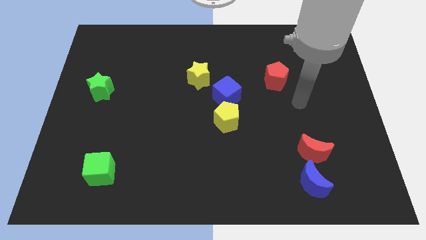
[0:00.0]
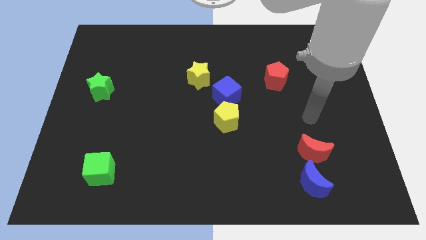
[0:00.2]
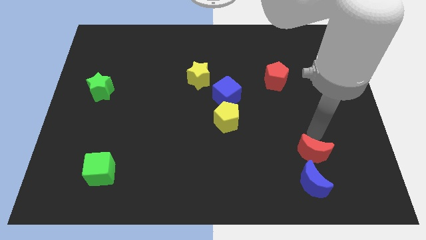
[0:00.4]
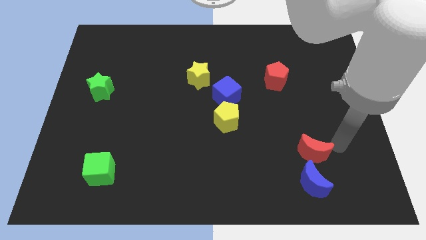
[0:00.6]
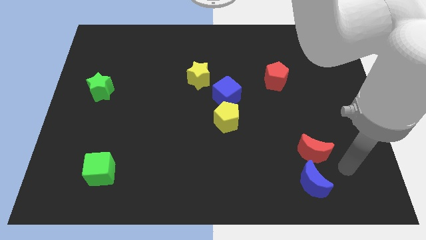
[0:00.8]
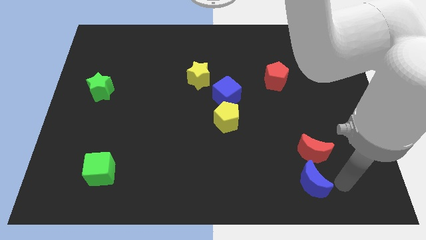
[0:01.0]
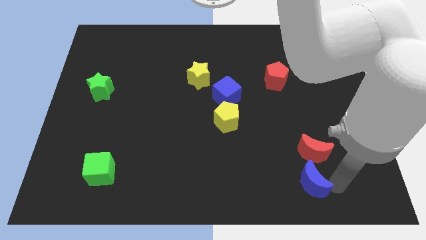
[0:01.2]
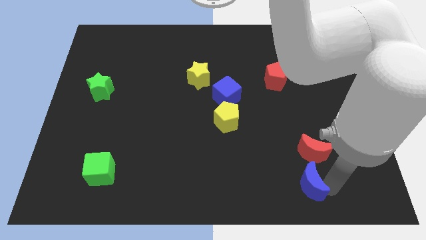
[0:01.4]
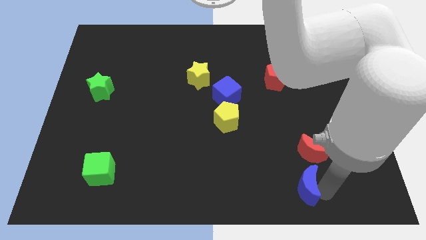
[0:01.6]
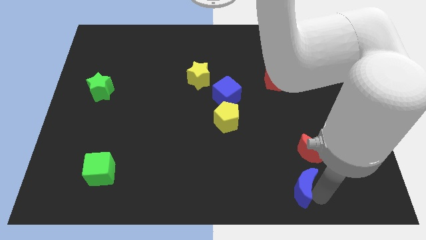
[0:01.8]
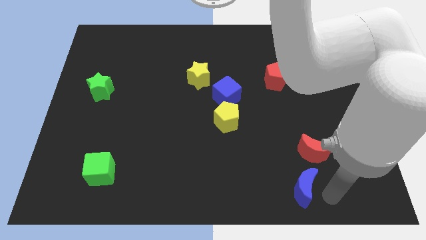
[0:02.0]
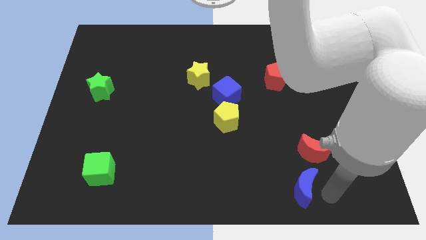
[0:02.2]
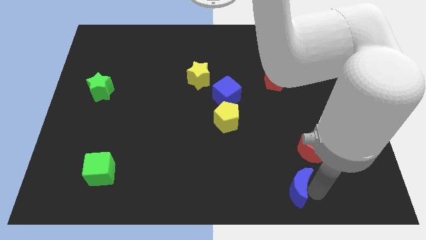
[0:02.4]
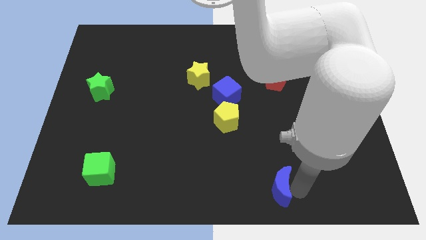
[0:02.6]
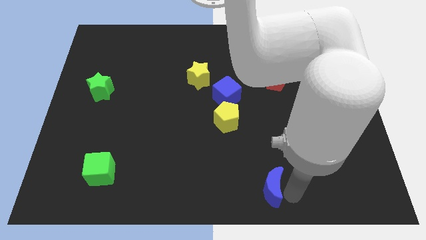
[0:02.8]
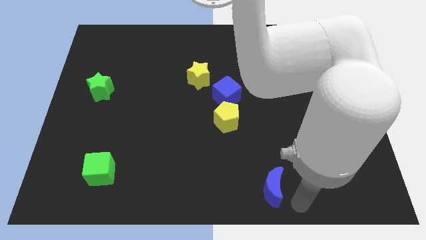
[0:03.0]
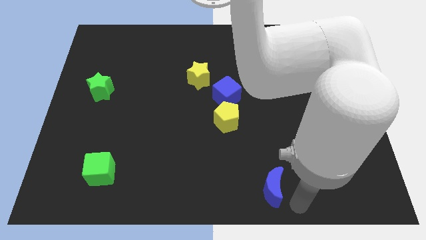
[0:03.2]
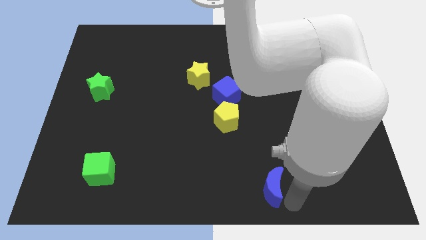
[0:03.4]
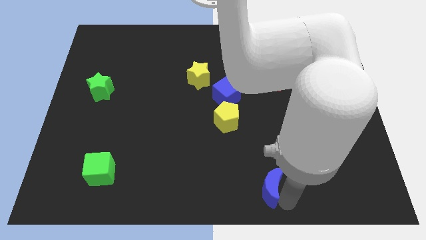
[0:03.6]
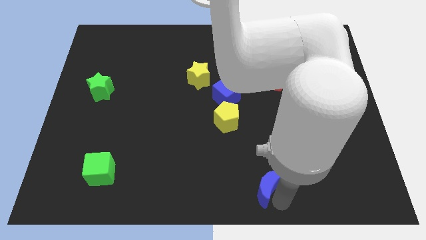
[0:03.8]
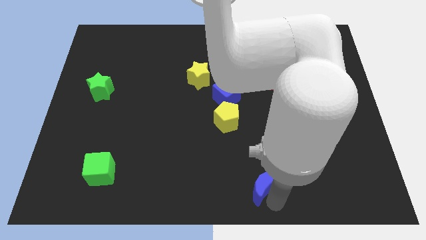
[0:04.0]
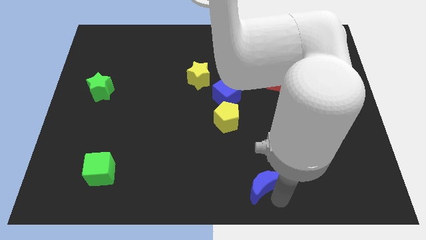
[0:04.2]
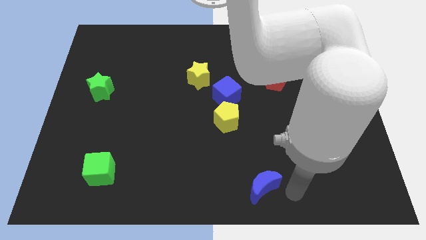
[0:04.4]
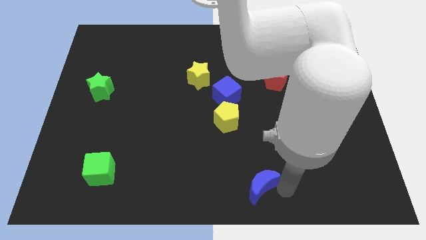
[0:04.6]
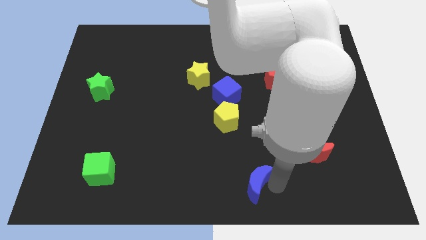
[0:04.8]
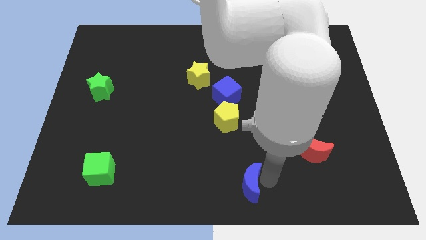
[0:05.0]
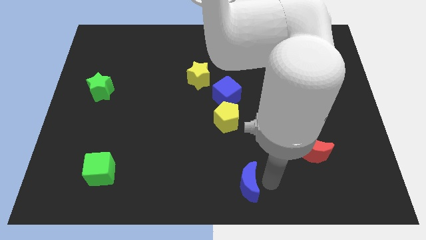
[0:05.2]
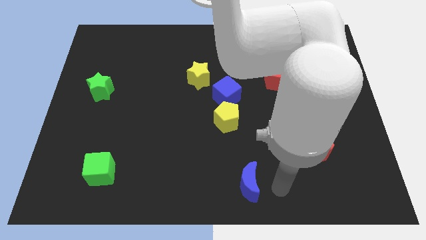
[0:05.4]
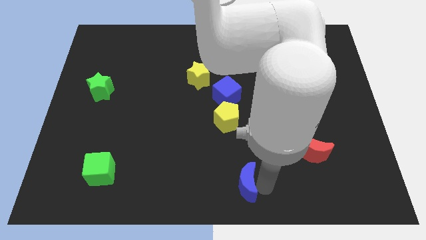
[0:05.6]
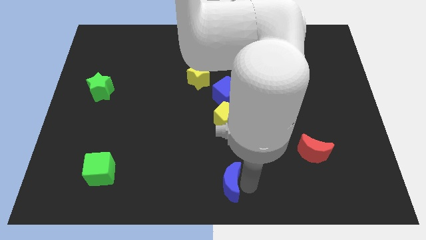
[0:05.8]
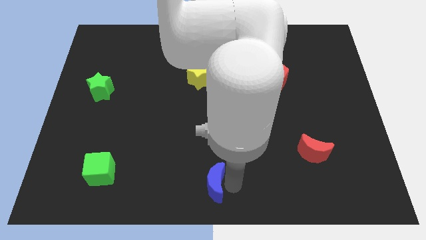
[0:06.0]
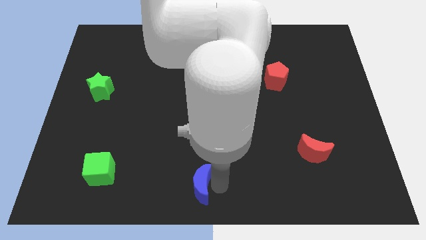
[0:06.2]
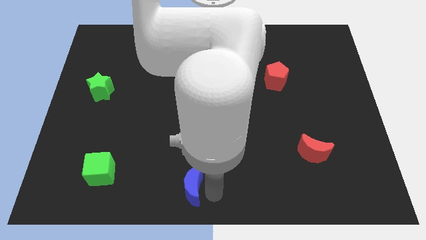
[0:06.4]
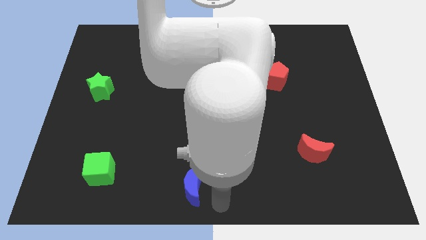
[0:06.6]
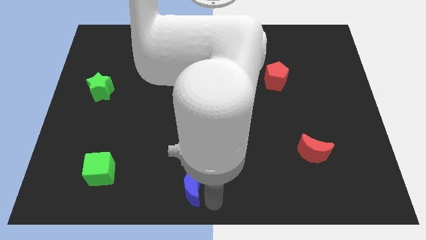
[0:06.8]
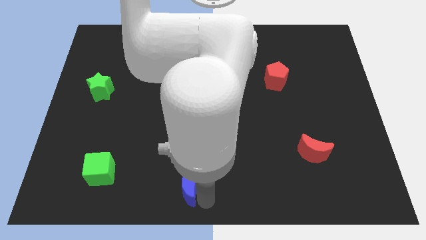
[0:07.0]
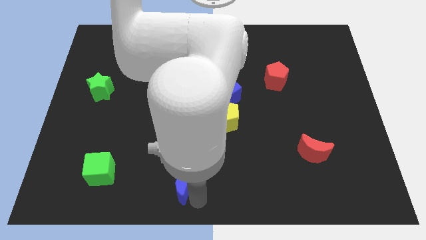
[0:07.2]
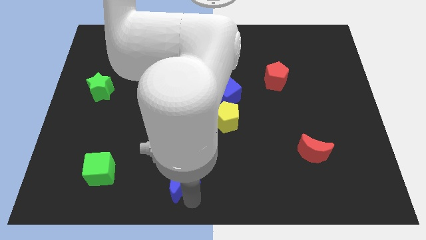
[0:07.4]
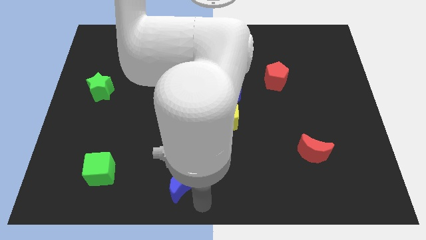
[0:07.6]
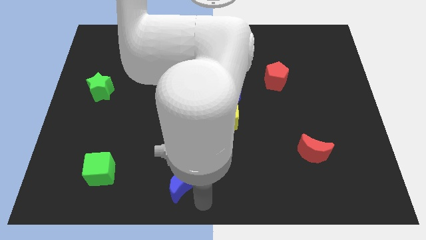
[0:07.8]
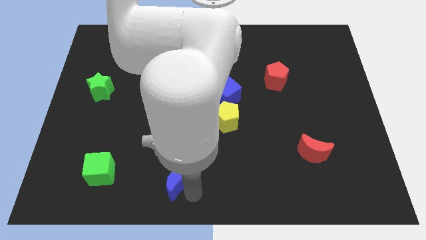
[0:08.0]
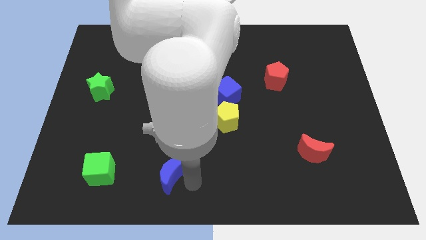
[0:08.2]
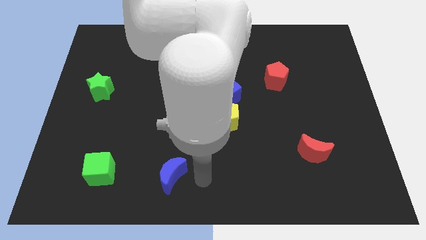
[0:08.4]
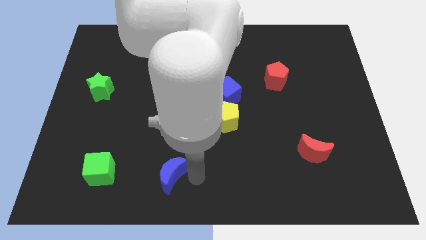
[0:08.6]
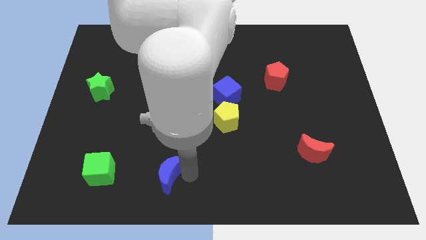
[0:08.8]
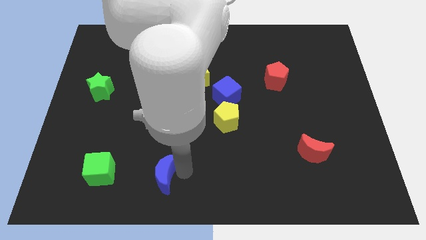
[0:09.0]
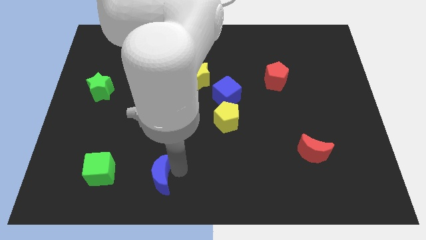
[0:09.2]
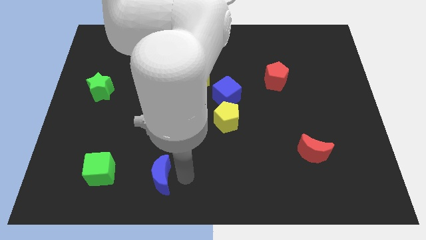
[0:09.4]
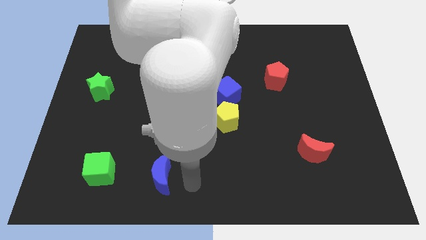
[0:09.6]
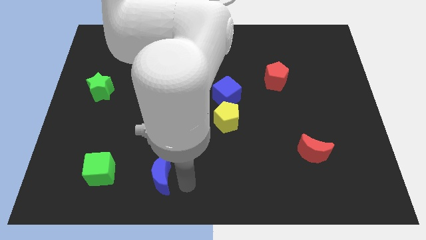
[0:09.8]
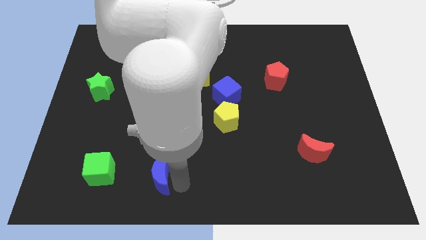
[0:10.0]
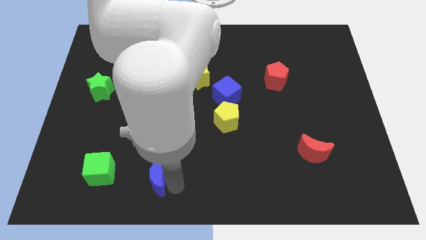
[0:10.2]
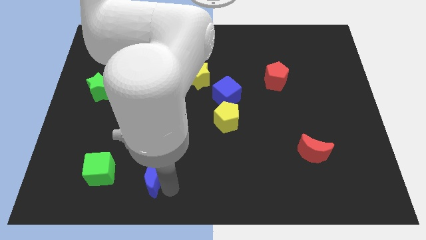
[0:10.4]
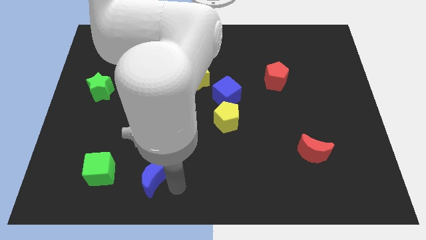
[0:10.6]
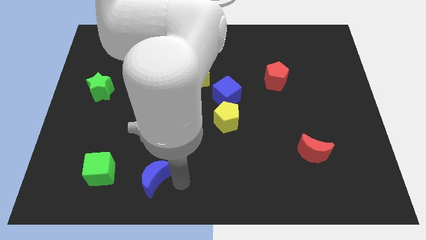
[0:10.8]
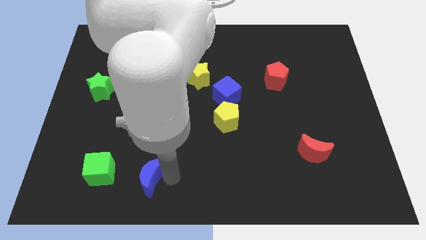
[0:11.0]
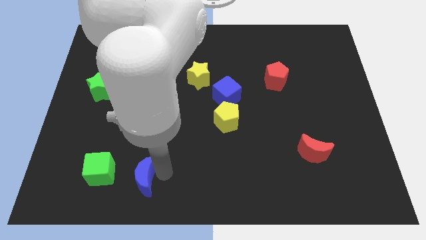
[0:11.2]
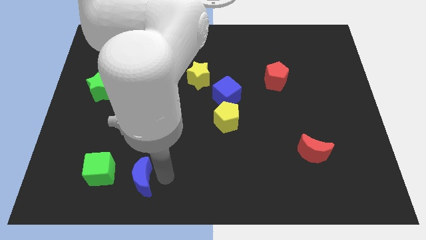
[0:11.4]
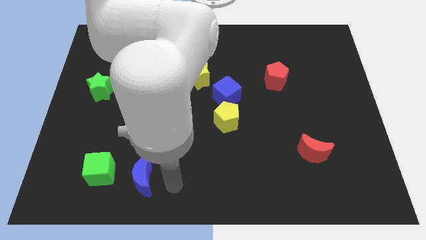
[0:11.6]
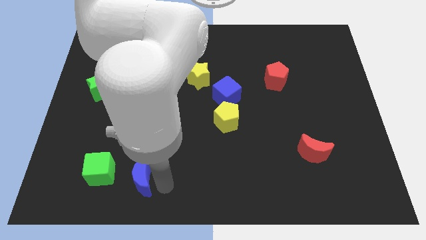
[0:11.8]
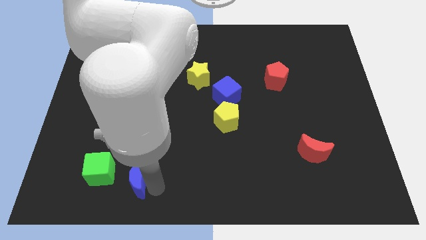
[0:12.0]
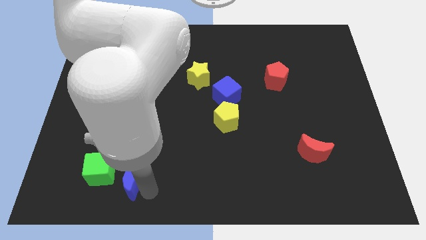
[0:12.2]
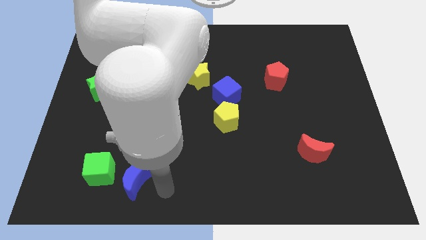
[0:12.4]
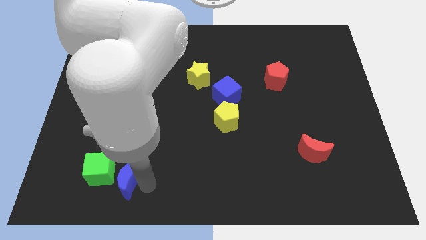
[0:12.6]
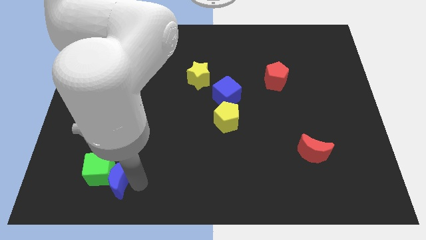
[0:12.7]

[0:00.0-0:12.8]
put the blue moon towards the green cube

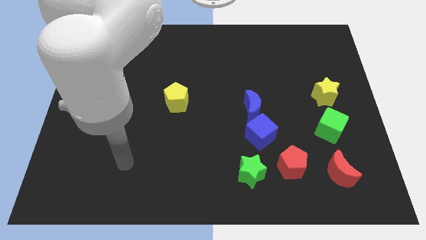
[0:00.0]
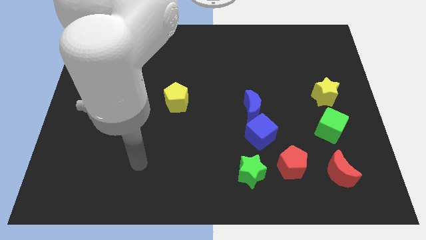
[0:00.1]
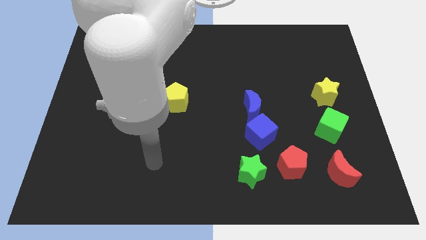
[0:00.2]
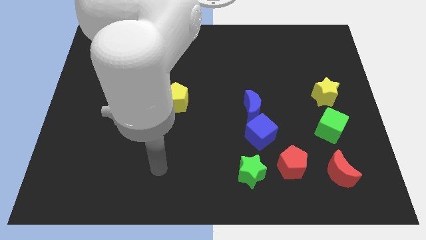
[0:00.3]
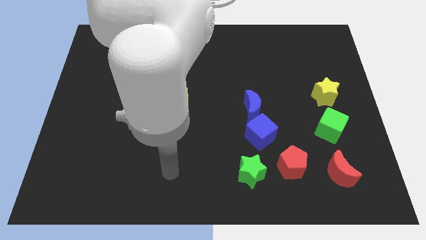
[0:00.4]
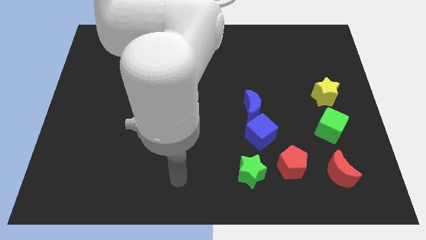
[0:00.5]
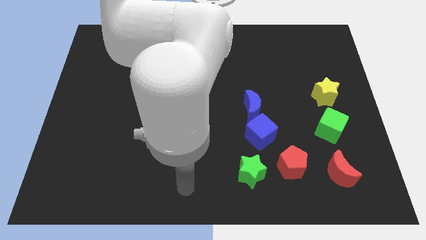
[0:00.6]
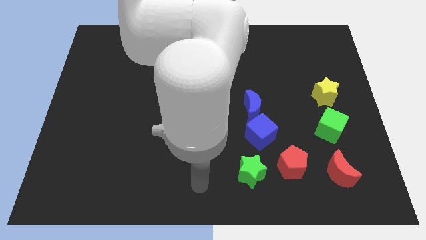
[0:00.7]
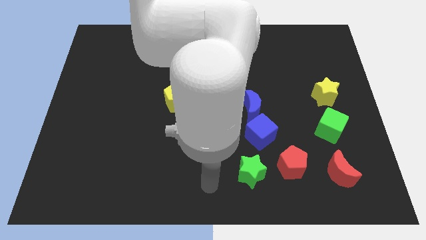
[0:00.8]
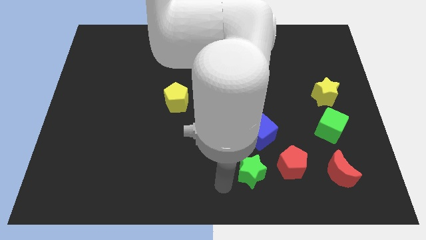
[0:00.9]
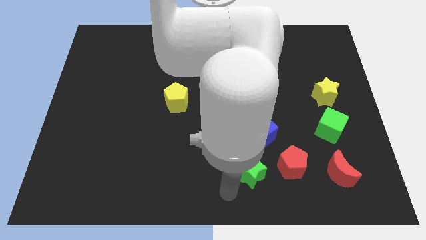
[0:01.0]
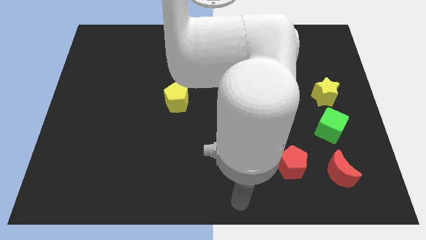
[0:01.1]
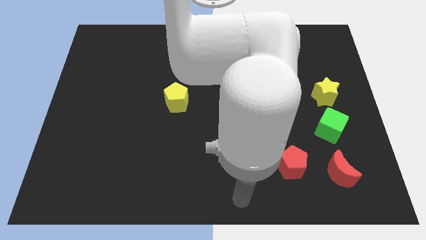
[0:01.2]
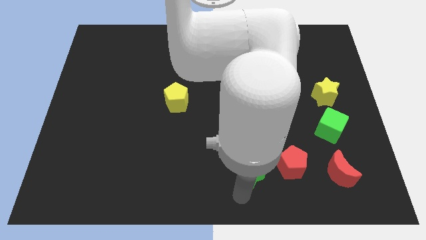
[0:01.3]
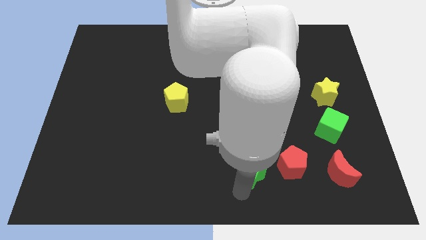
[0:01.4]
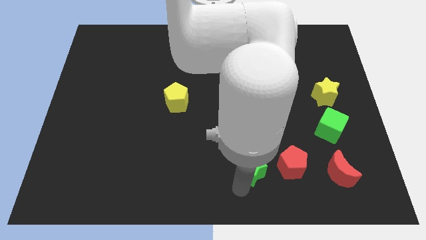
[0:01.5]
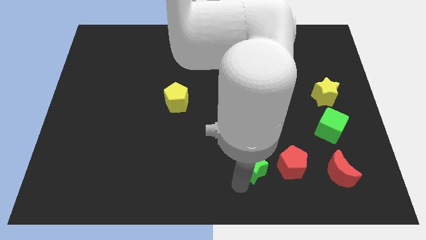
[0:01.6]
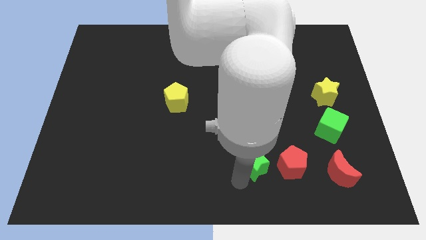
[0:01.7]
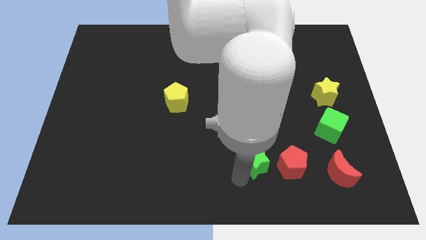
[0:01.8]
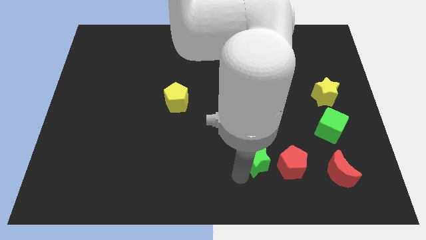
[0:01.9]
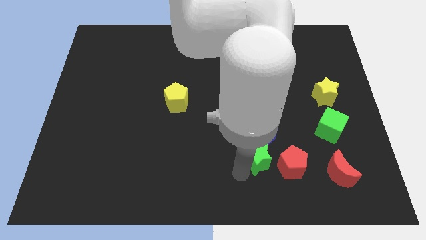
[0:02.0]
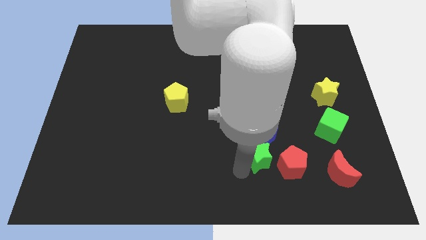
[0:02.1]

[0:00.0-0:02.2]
slide the green star to the blue cube
